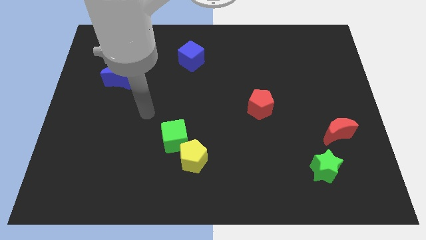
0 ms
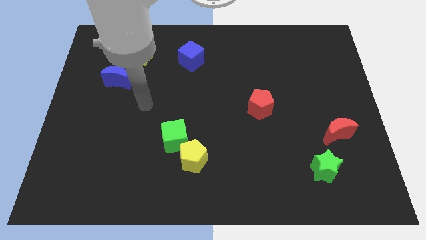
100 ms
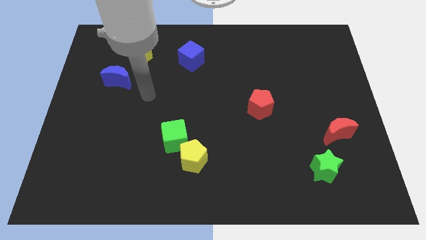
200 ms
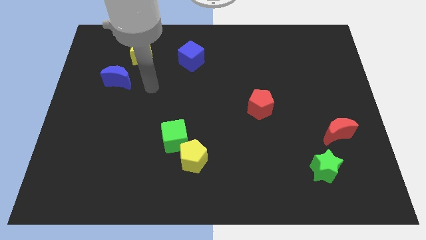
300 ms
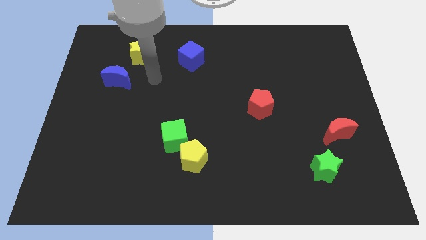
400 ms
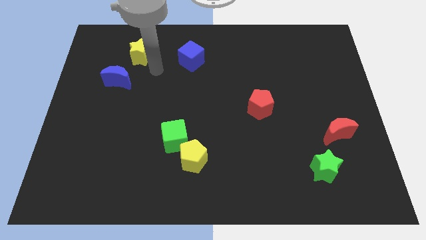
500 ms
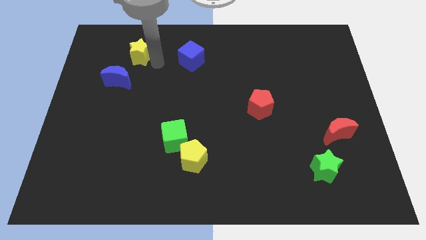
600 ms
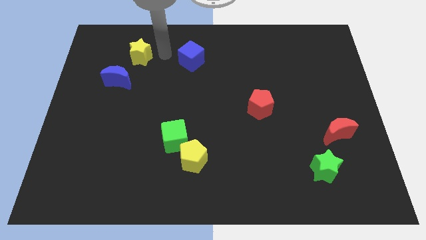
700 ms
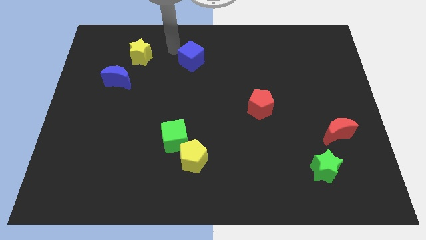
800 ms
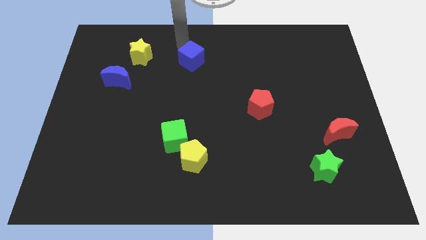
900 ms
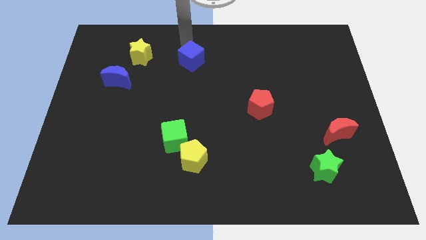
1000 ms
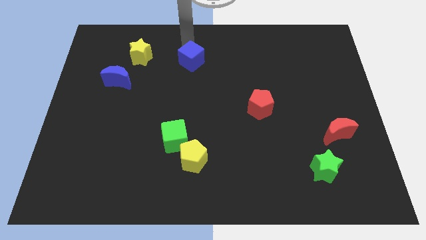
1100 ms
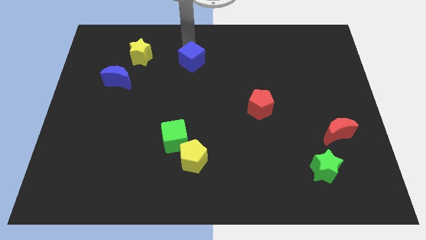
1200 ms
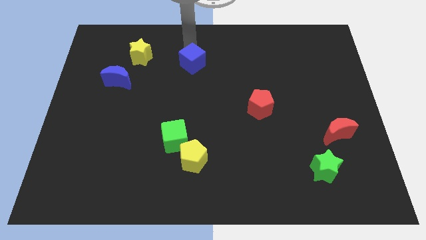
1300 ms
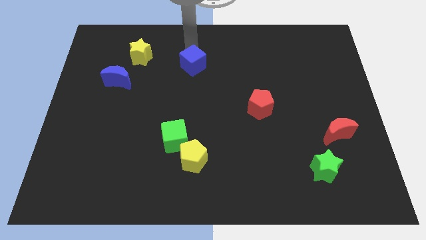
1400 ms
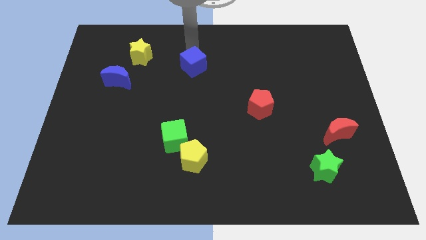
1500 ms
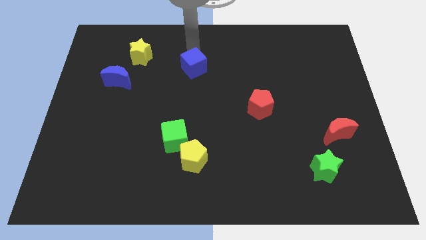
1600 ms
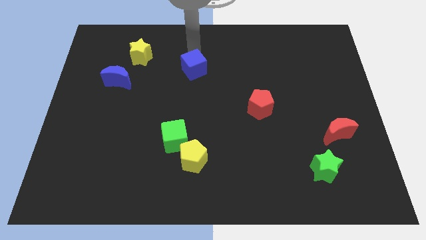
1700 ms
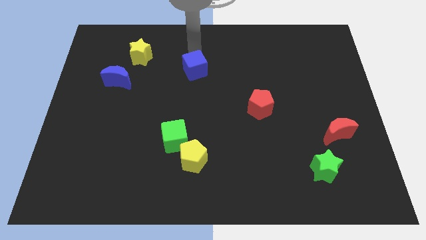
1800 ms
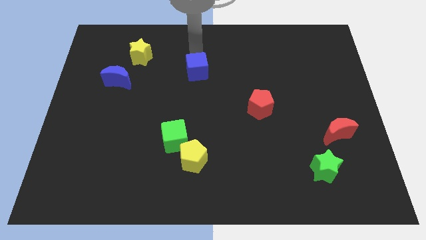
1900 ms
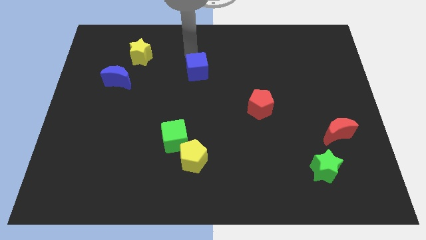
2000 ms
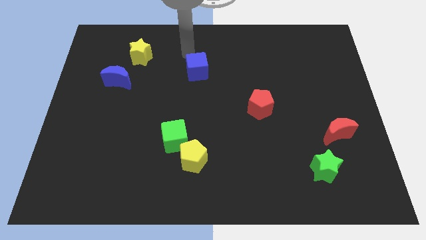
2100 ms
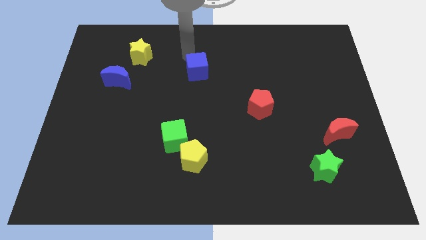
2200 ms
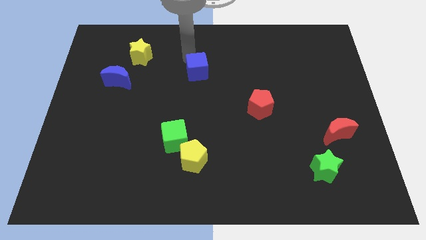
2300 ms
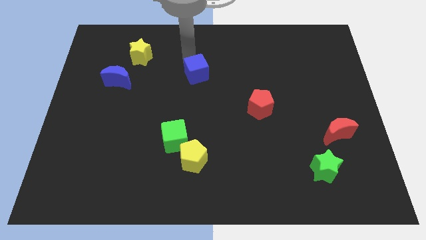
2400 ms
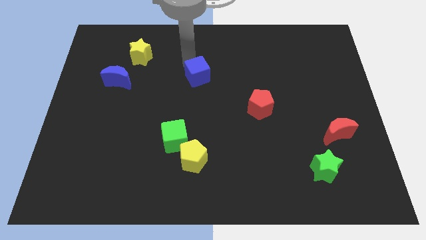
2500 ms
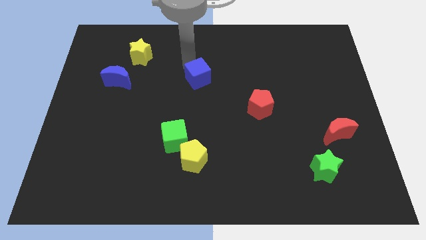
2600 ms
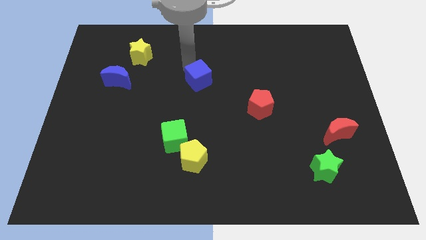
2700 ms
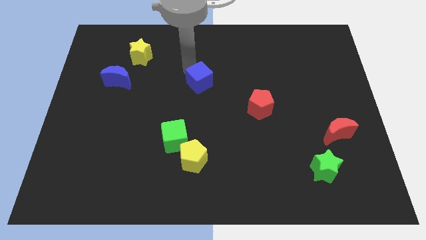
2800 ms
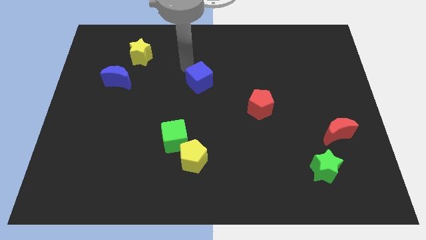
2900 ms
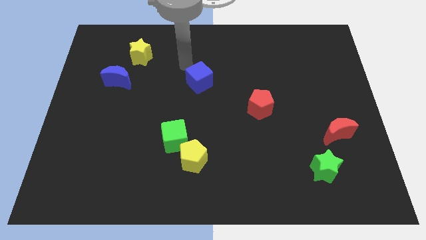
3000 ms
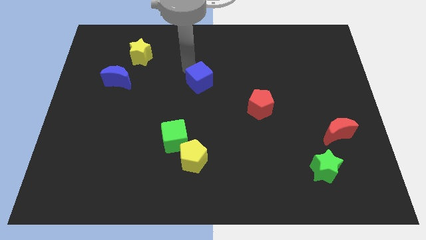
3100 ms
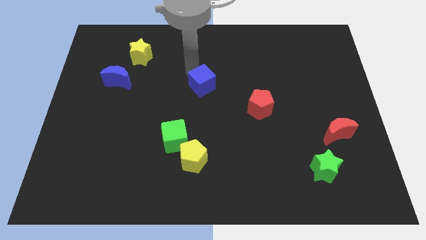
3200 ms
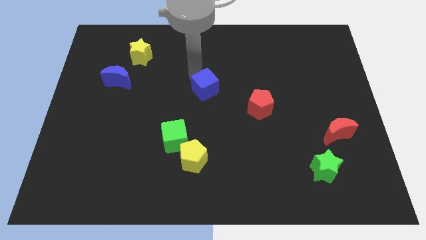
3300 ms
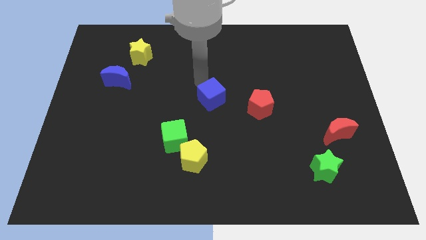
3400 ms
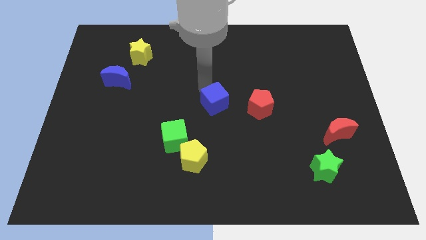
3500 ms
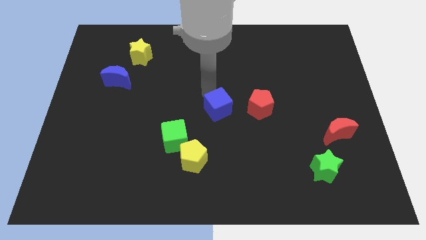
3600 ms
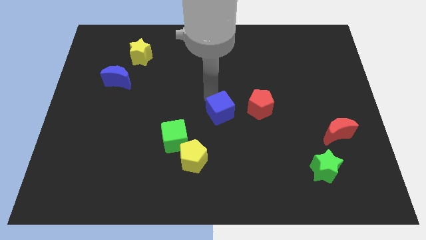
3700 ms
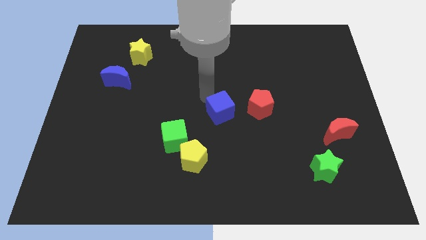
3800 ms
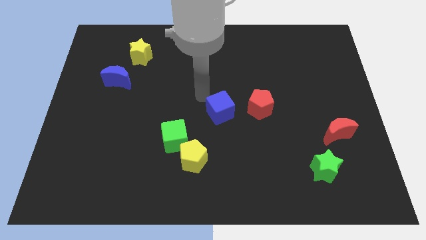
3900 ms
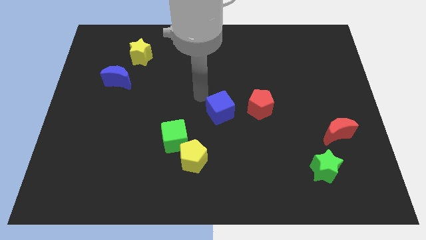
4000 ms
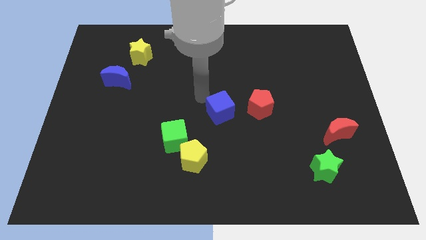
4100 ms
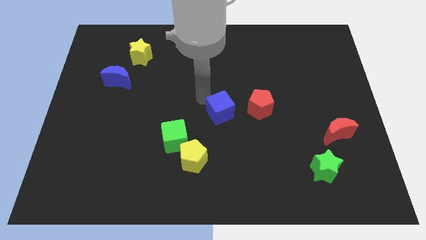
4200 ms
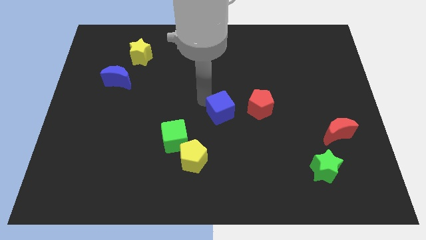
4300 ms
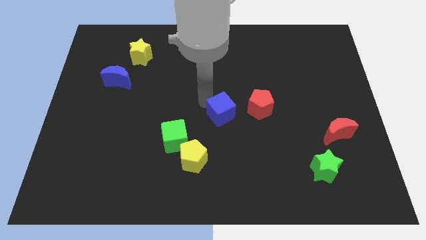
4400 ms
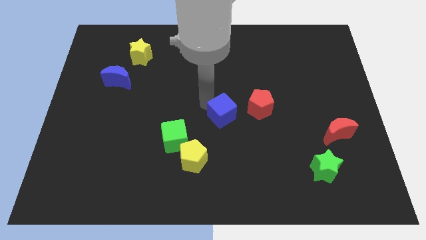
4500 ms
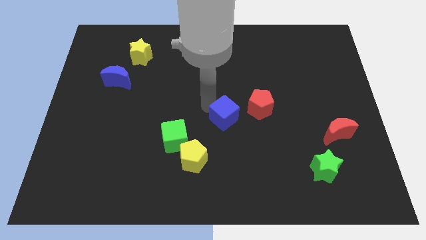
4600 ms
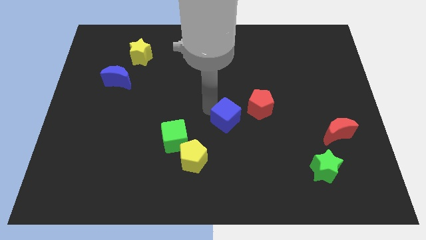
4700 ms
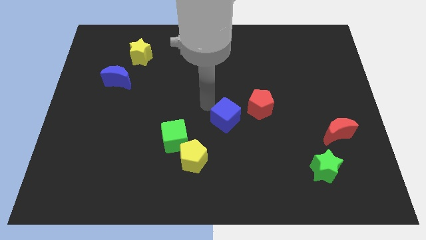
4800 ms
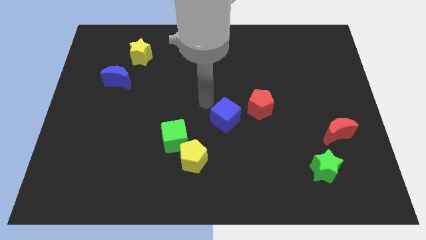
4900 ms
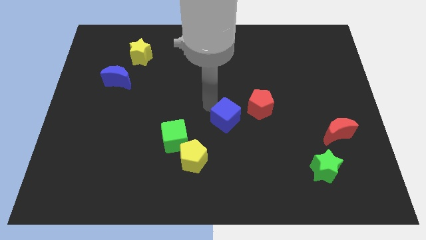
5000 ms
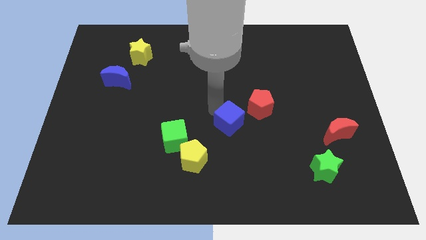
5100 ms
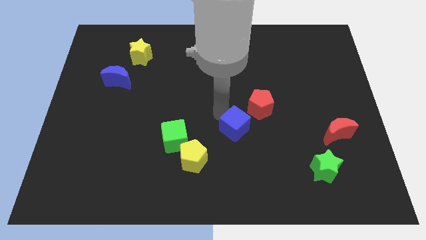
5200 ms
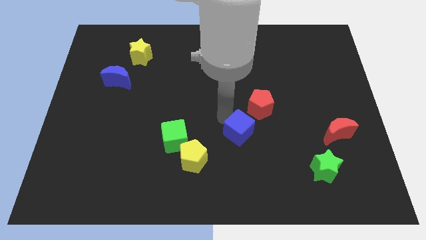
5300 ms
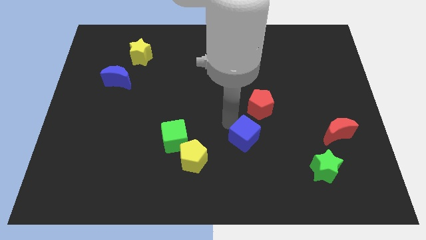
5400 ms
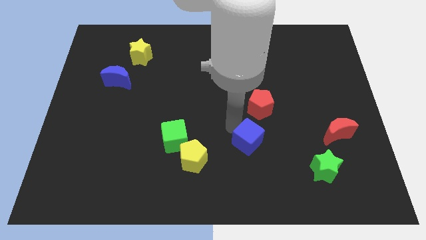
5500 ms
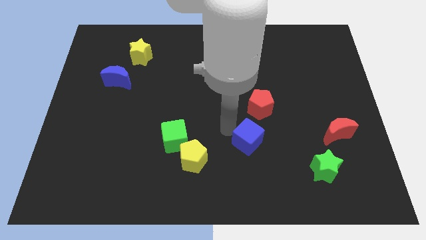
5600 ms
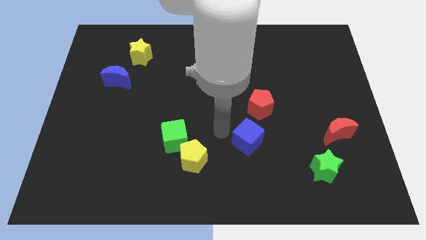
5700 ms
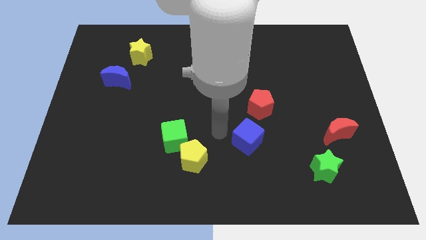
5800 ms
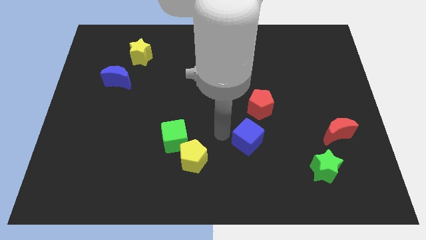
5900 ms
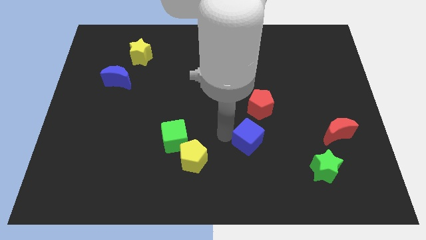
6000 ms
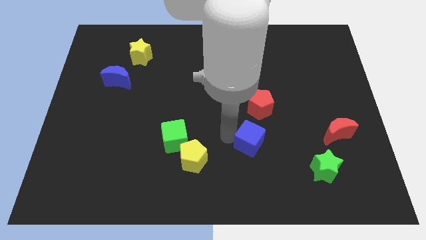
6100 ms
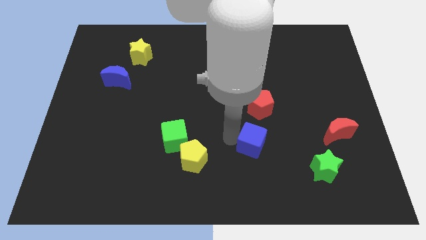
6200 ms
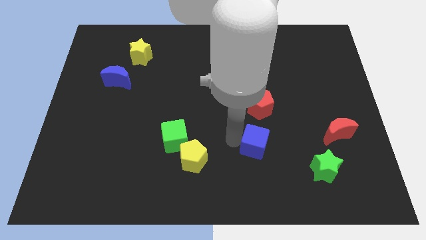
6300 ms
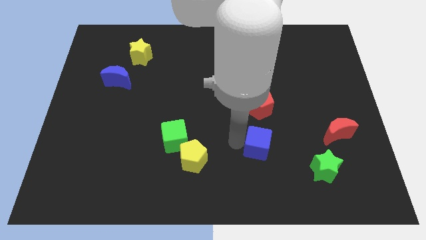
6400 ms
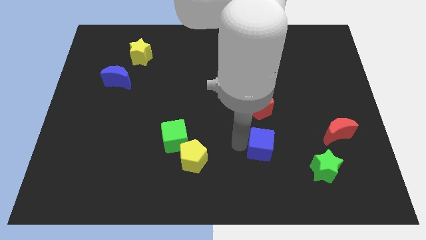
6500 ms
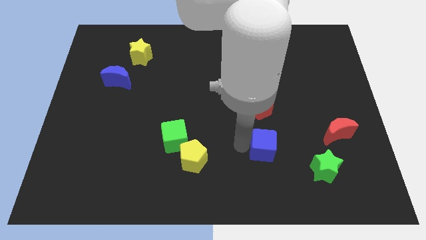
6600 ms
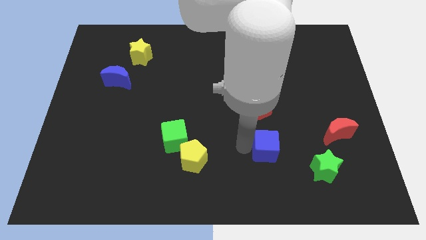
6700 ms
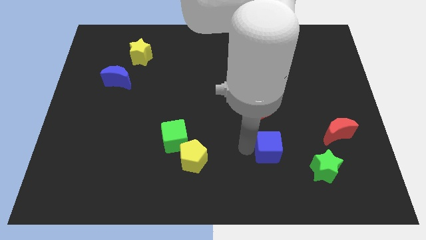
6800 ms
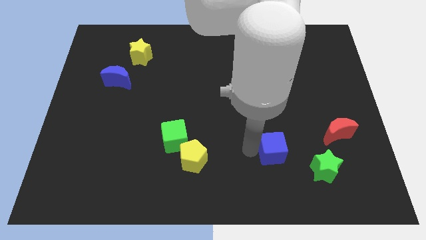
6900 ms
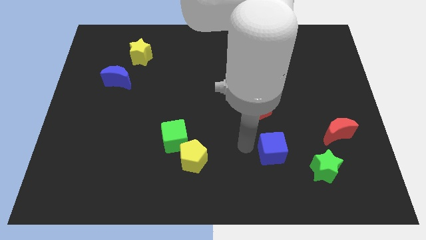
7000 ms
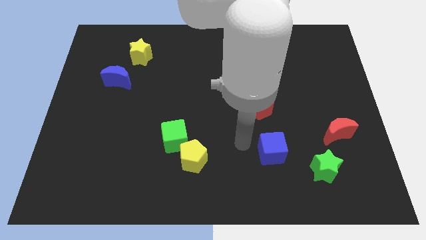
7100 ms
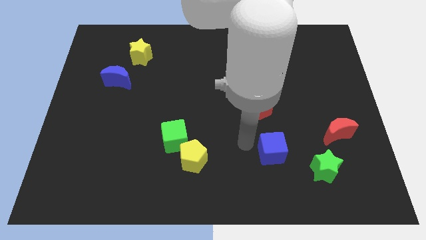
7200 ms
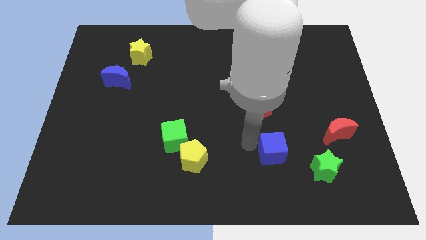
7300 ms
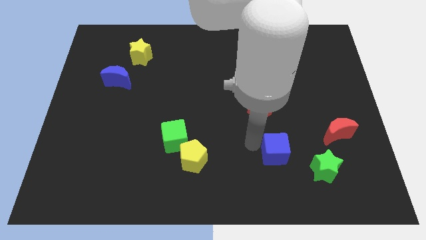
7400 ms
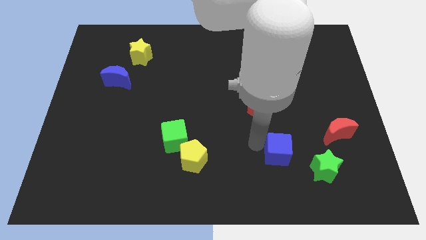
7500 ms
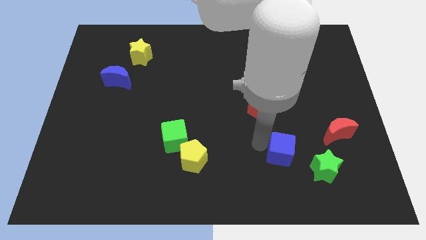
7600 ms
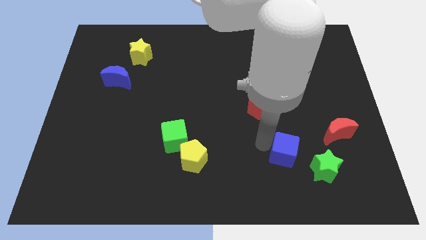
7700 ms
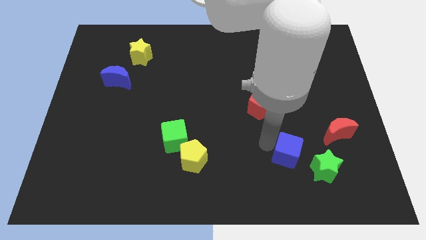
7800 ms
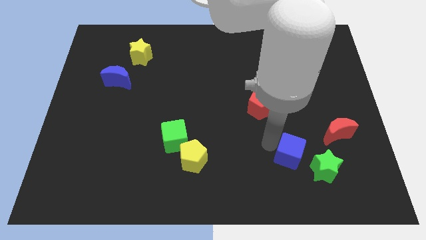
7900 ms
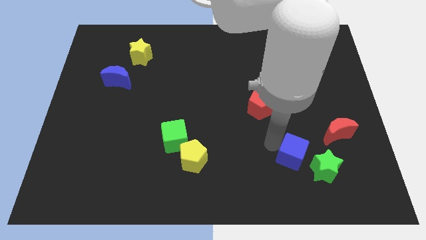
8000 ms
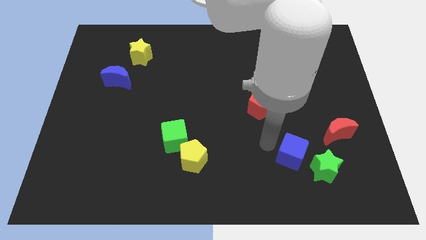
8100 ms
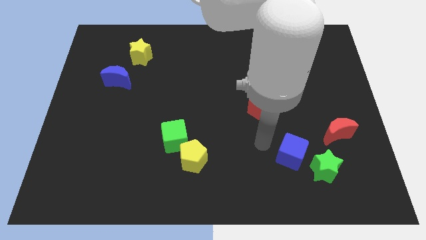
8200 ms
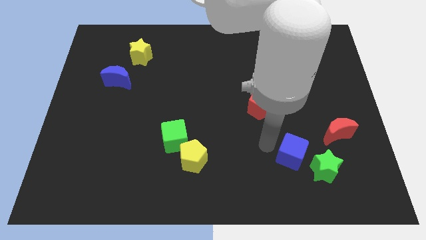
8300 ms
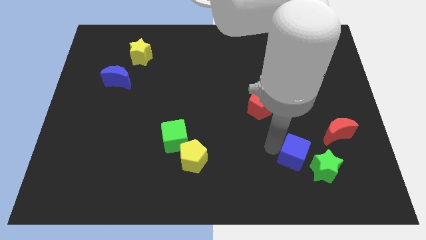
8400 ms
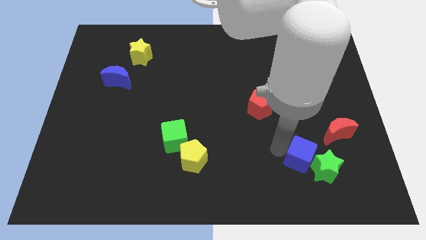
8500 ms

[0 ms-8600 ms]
move the blue cube towards the green star
